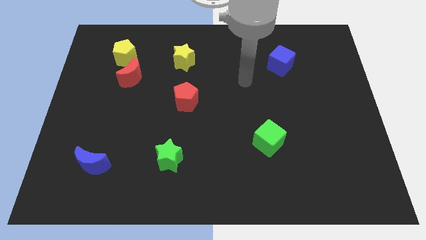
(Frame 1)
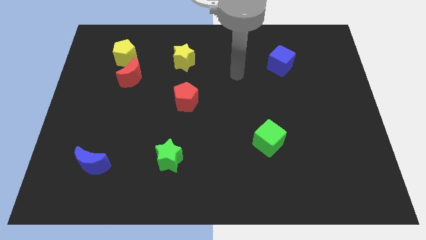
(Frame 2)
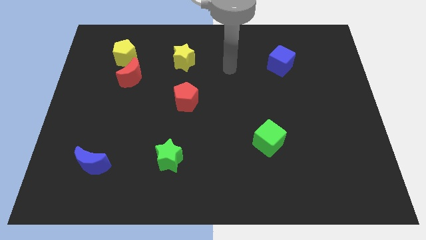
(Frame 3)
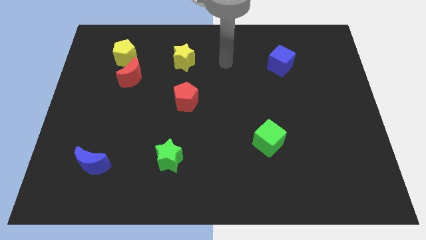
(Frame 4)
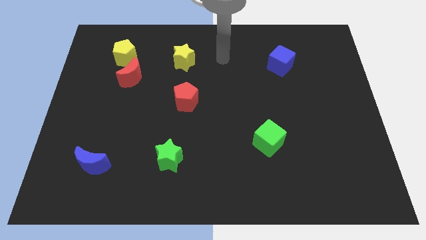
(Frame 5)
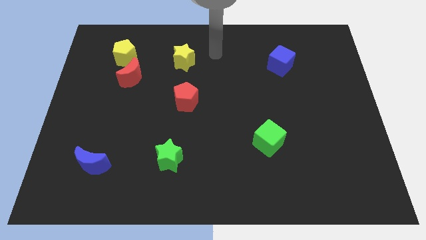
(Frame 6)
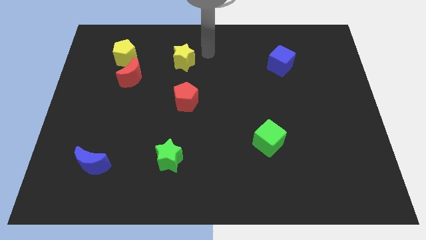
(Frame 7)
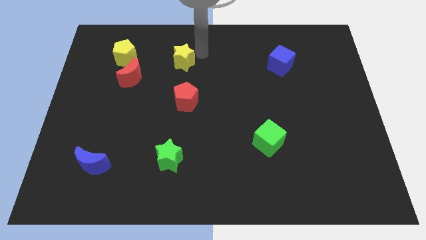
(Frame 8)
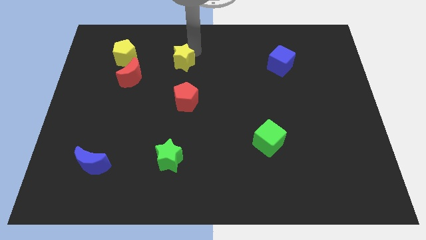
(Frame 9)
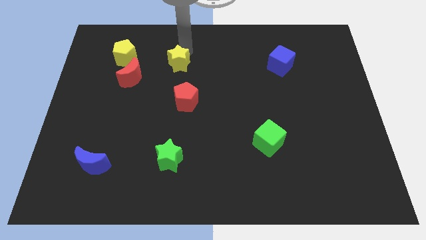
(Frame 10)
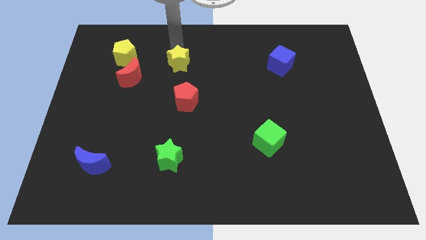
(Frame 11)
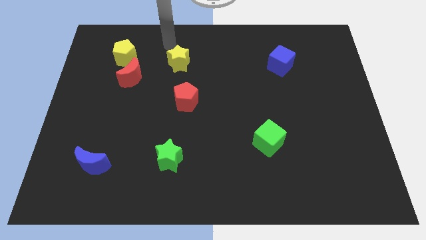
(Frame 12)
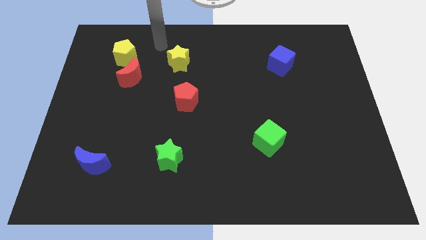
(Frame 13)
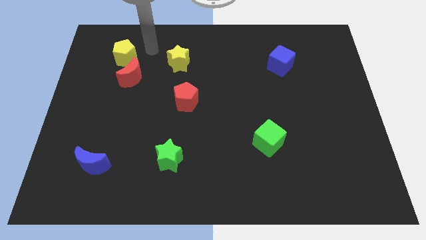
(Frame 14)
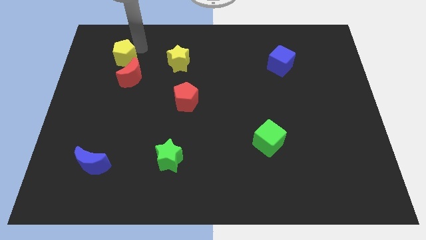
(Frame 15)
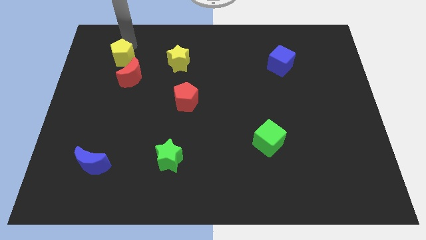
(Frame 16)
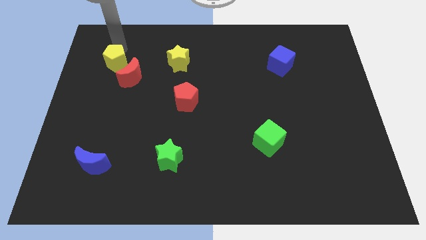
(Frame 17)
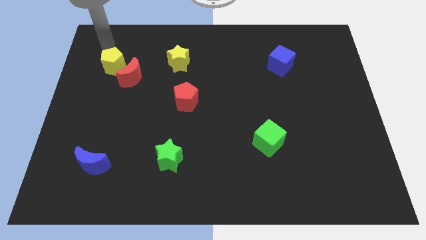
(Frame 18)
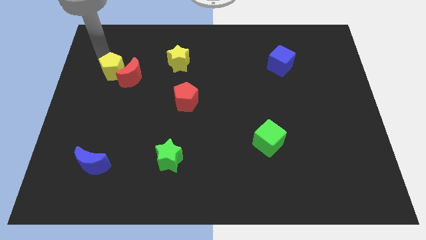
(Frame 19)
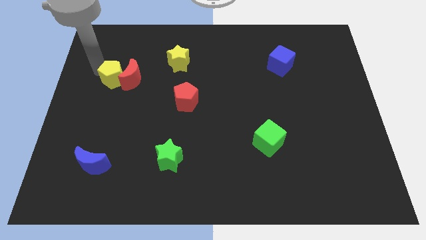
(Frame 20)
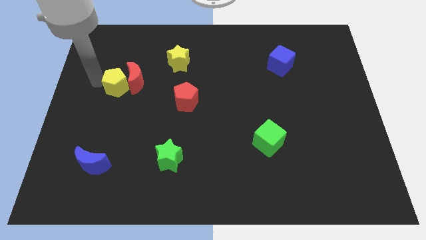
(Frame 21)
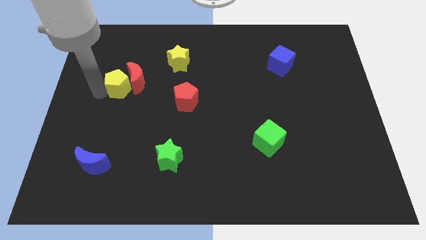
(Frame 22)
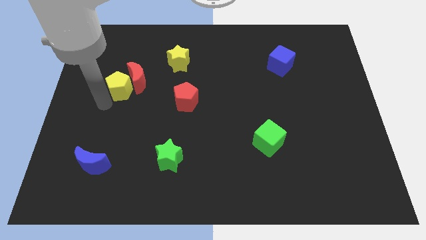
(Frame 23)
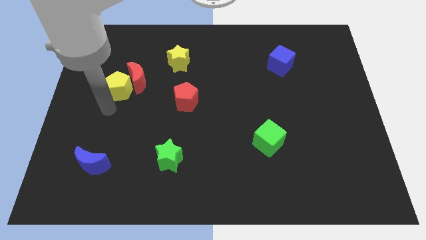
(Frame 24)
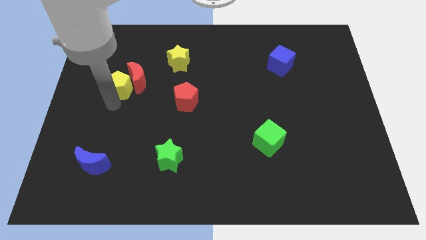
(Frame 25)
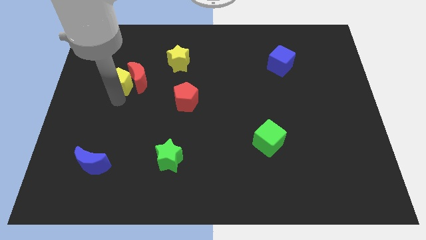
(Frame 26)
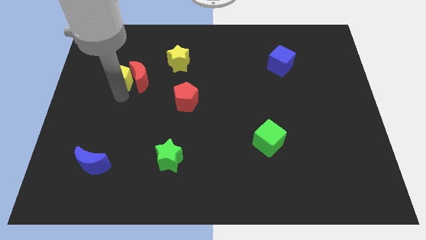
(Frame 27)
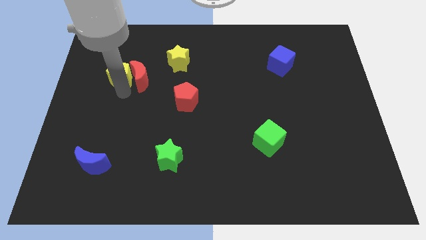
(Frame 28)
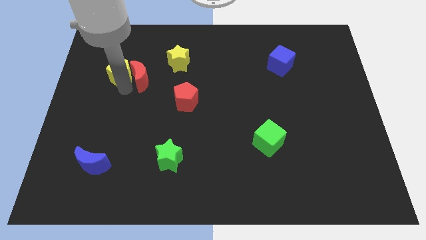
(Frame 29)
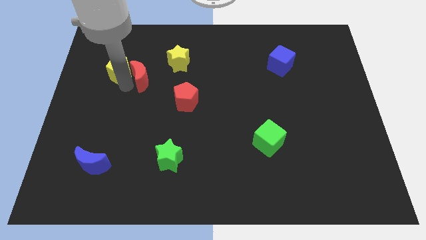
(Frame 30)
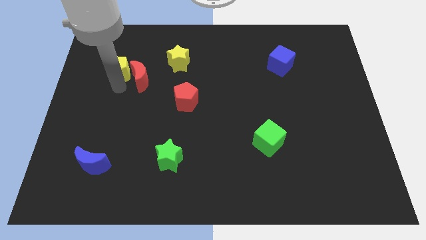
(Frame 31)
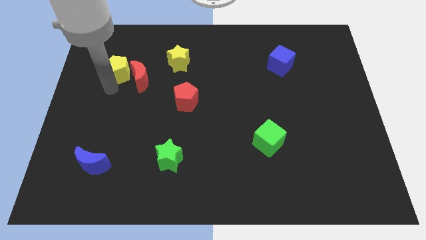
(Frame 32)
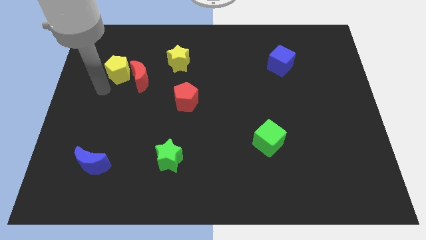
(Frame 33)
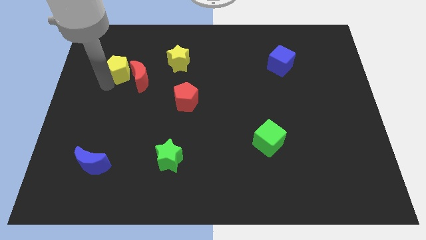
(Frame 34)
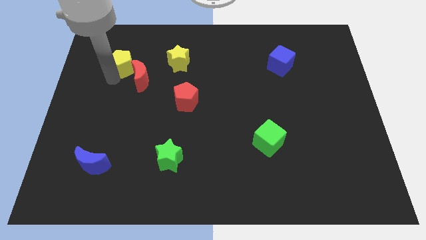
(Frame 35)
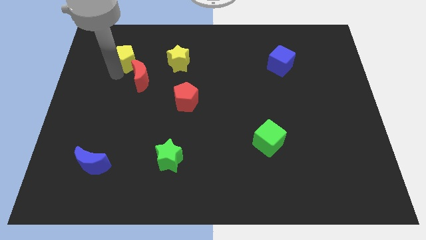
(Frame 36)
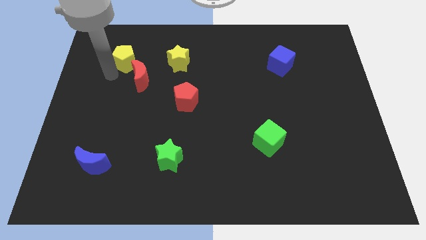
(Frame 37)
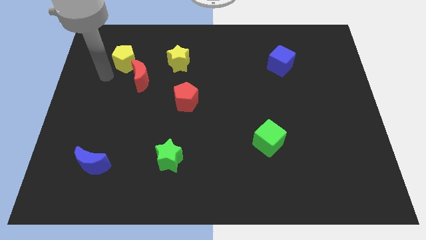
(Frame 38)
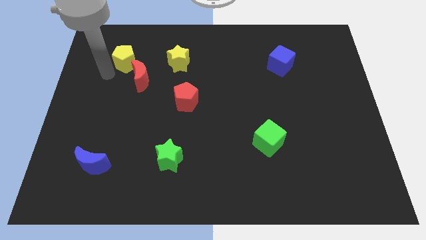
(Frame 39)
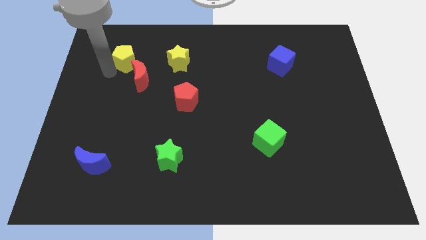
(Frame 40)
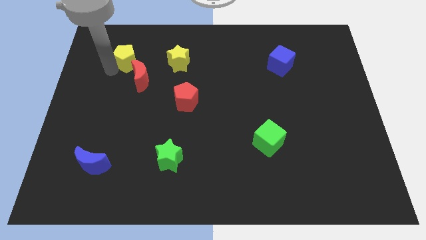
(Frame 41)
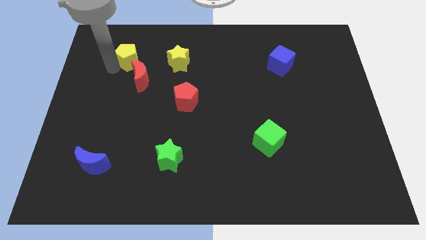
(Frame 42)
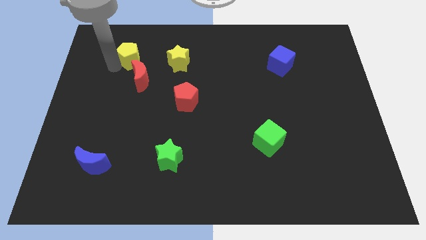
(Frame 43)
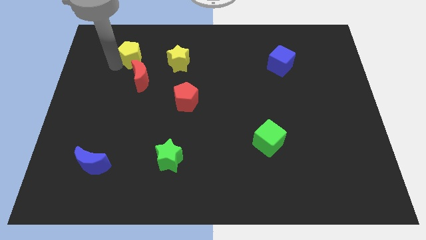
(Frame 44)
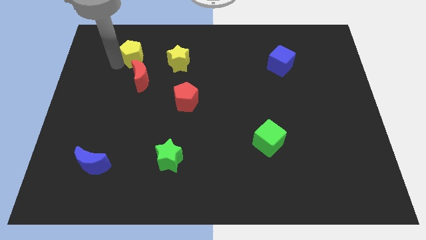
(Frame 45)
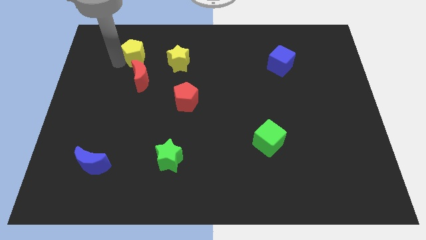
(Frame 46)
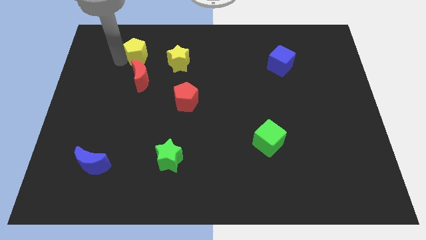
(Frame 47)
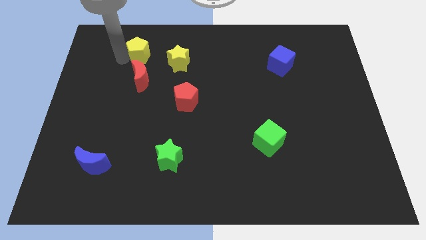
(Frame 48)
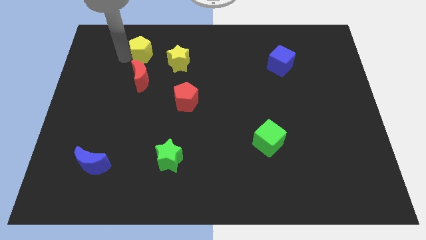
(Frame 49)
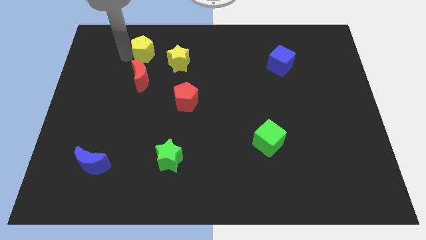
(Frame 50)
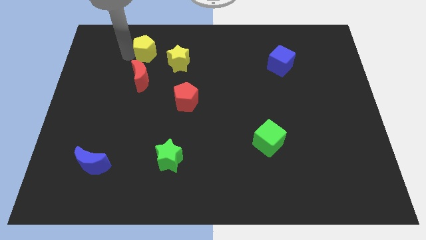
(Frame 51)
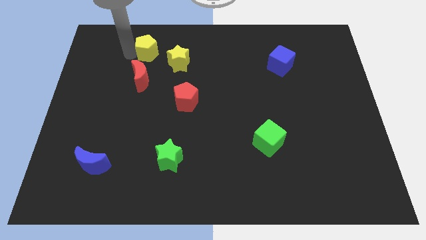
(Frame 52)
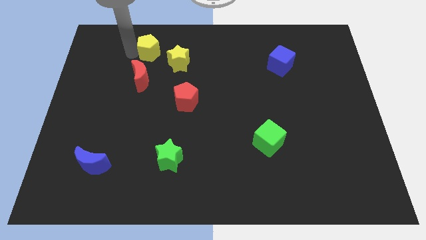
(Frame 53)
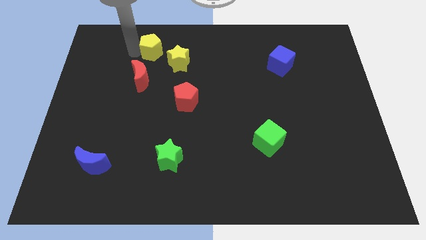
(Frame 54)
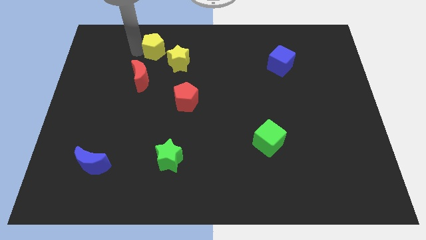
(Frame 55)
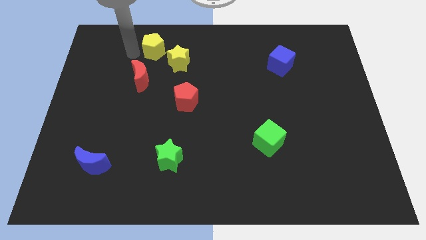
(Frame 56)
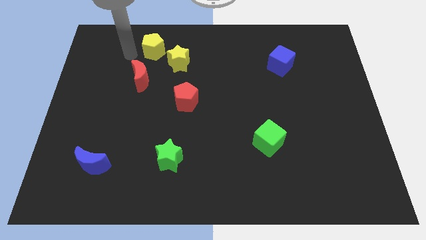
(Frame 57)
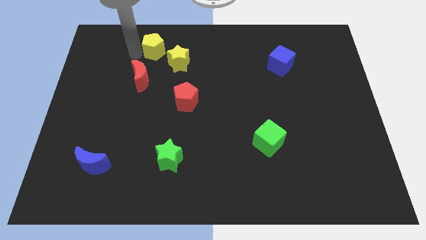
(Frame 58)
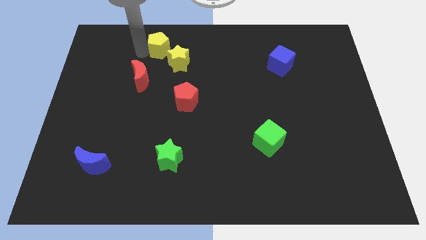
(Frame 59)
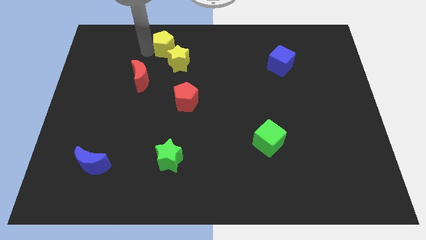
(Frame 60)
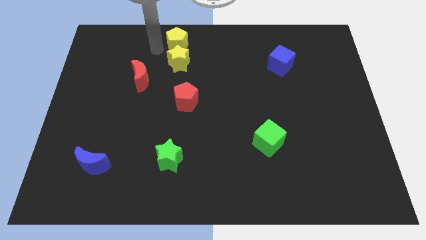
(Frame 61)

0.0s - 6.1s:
put the yellow pentagon to the towards your base
